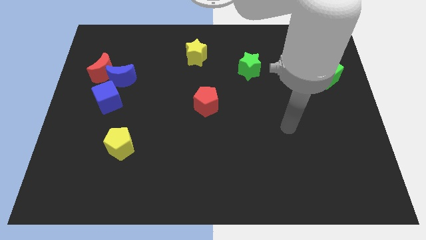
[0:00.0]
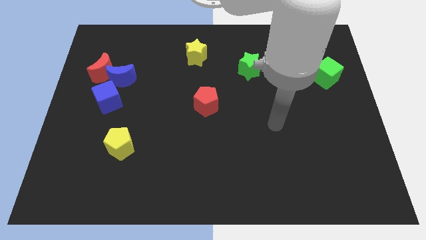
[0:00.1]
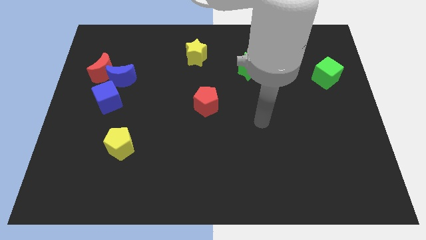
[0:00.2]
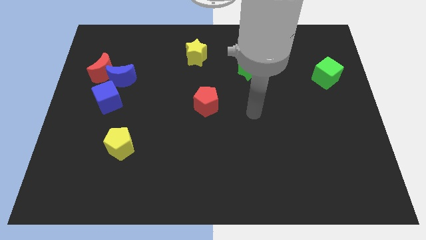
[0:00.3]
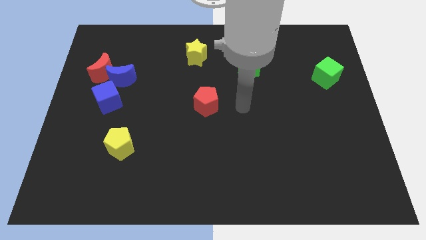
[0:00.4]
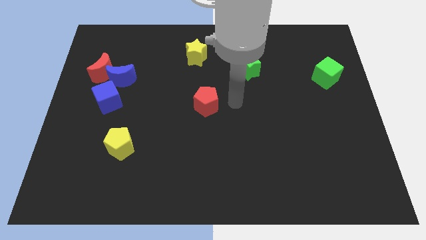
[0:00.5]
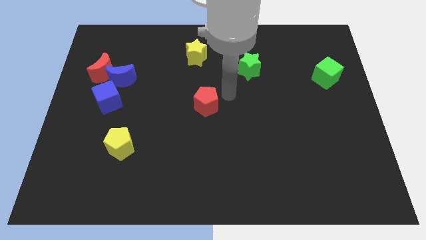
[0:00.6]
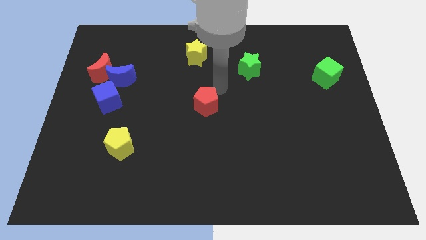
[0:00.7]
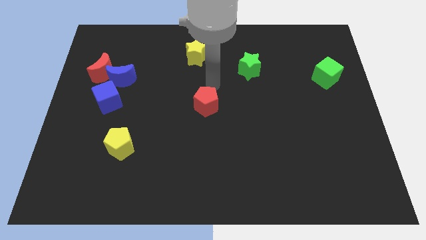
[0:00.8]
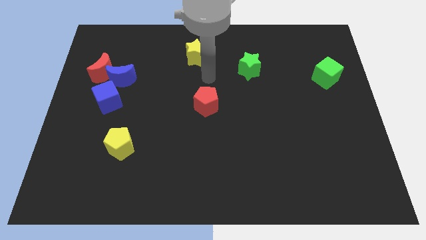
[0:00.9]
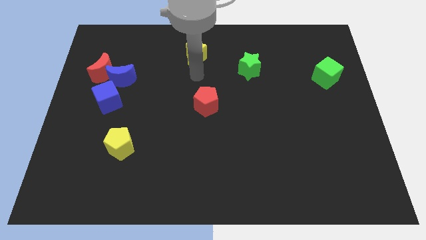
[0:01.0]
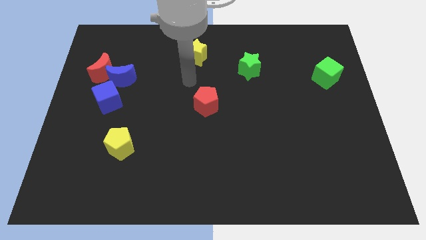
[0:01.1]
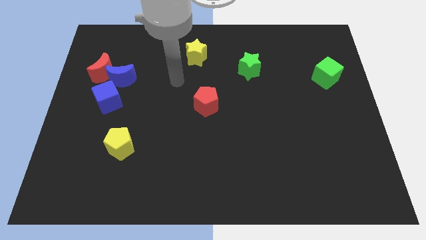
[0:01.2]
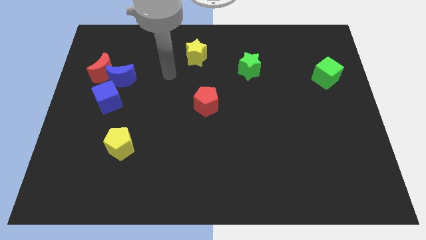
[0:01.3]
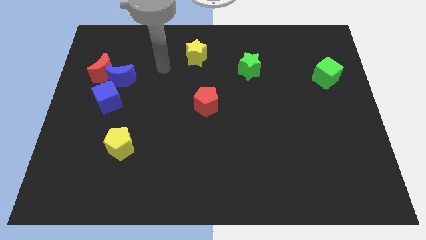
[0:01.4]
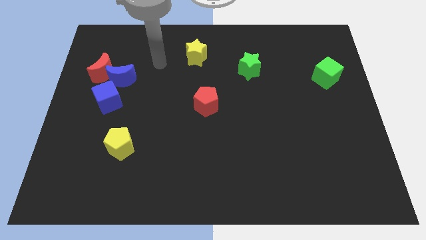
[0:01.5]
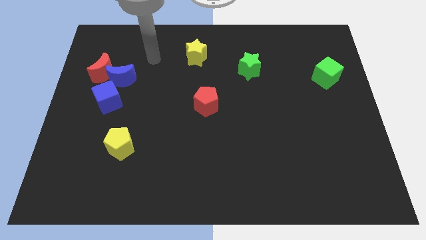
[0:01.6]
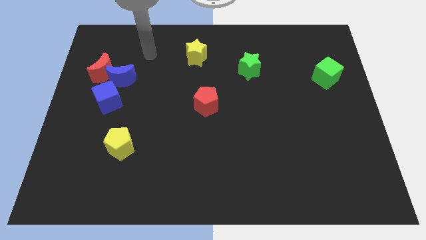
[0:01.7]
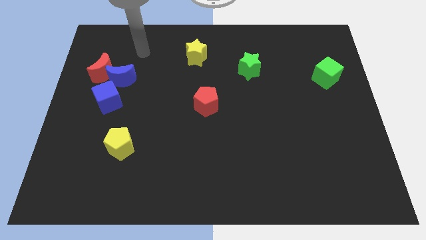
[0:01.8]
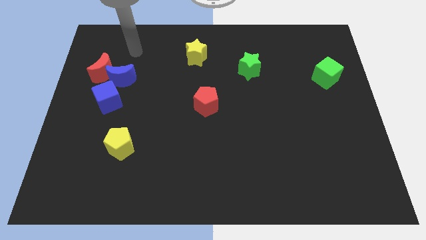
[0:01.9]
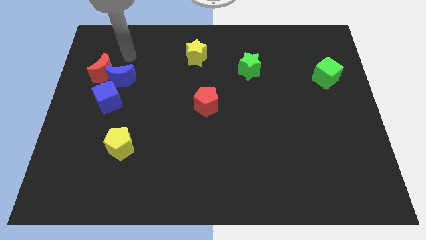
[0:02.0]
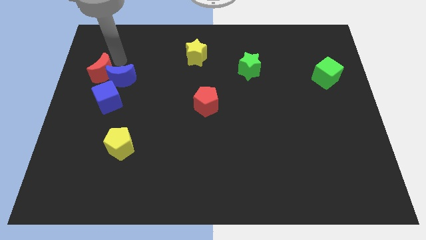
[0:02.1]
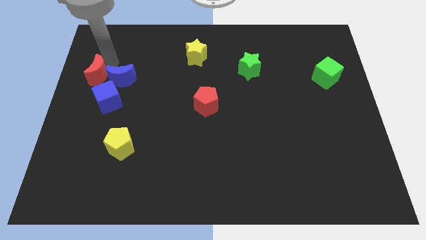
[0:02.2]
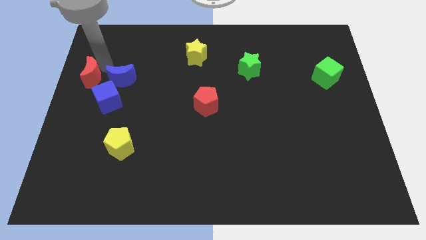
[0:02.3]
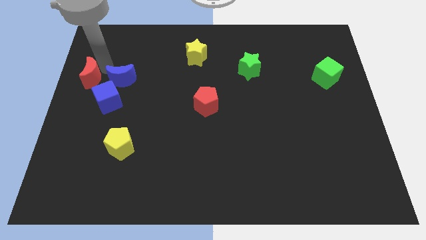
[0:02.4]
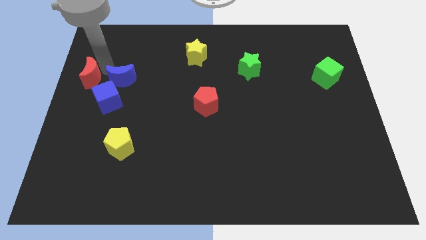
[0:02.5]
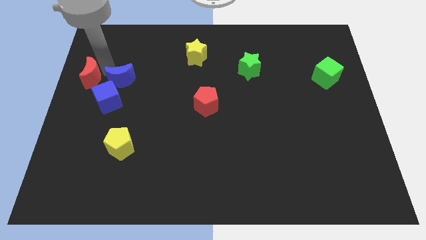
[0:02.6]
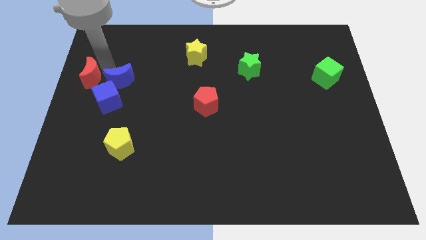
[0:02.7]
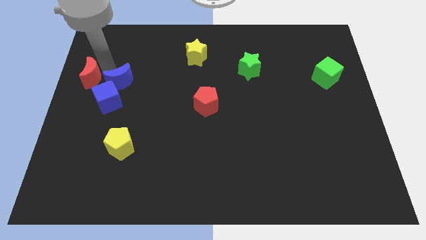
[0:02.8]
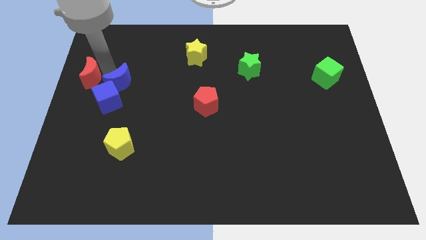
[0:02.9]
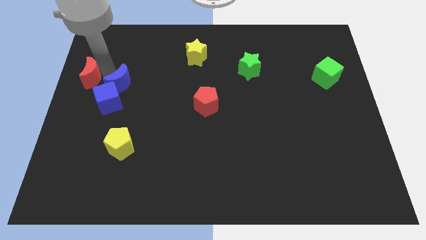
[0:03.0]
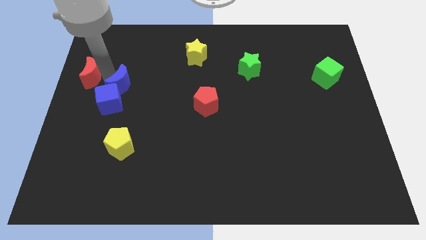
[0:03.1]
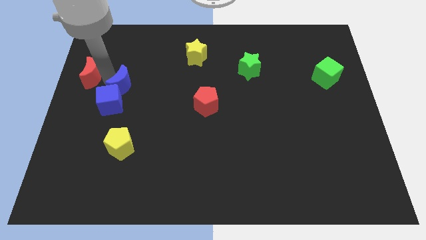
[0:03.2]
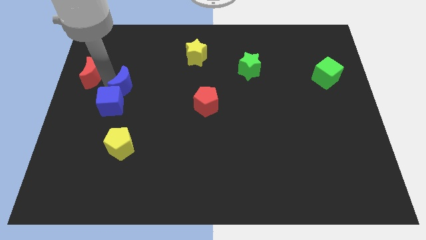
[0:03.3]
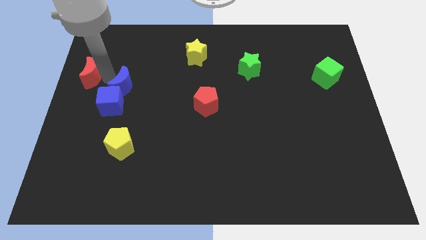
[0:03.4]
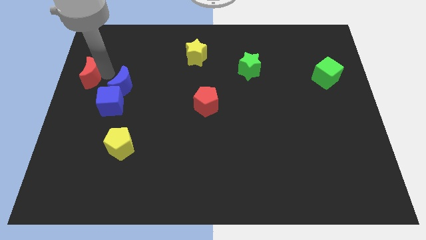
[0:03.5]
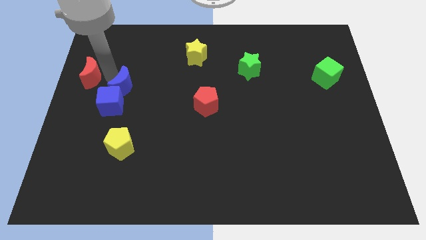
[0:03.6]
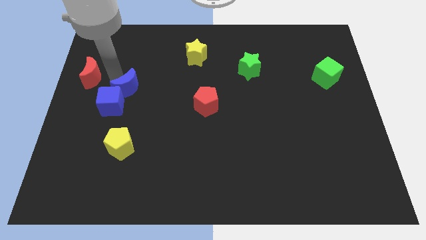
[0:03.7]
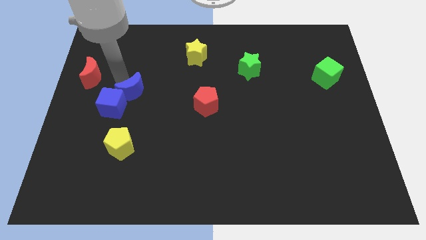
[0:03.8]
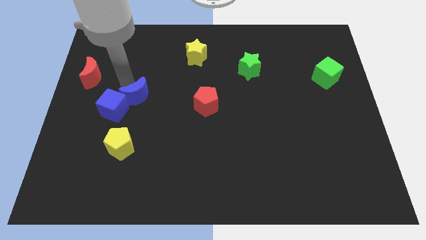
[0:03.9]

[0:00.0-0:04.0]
push the blue moon downwards and right somewhat

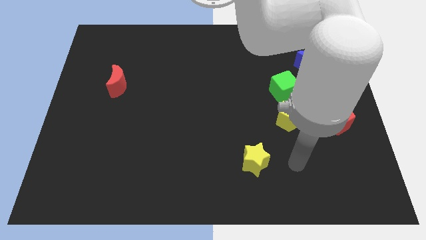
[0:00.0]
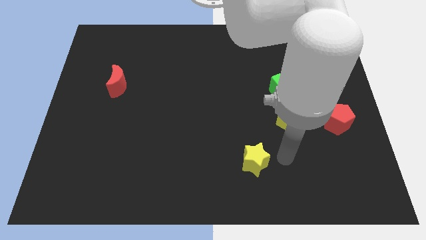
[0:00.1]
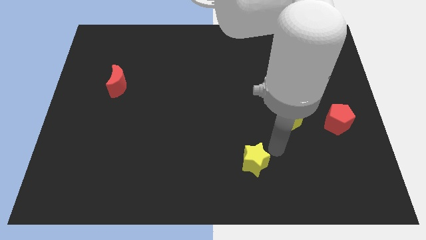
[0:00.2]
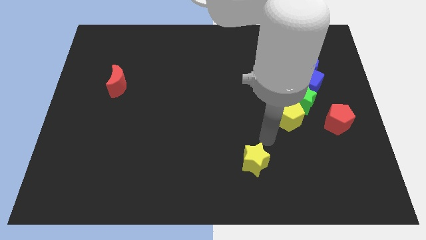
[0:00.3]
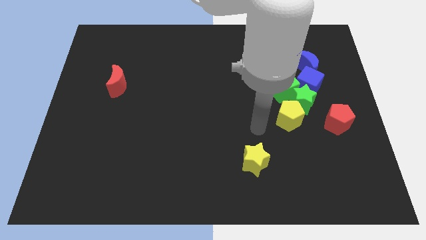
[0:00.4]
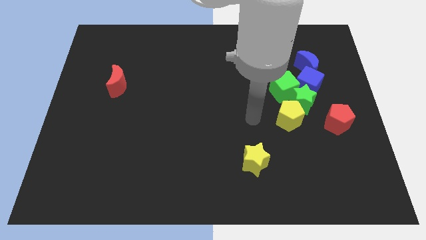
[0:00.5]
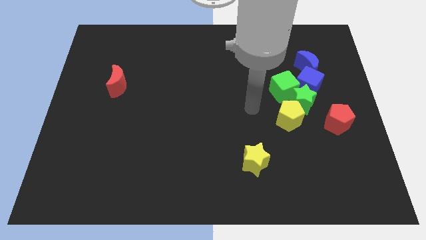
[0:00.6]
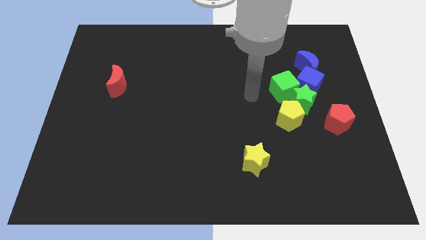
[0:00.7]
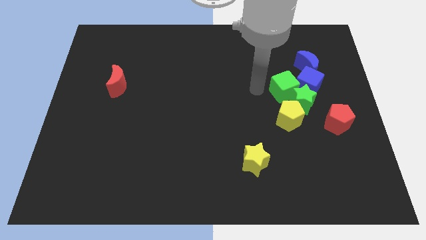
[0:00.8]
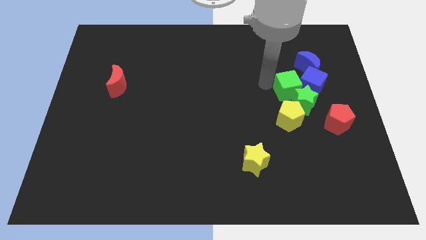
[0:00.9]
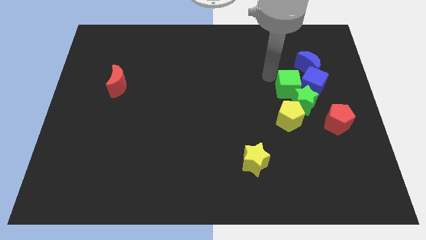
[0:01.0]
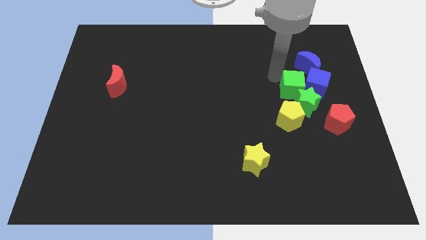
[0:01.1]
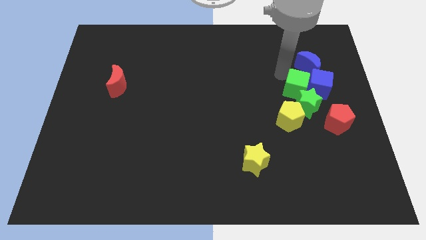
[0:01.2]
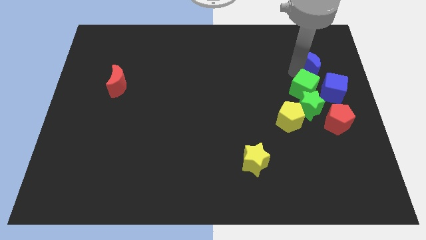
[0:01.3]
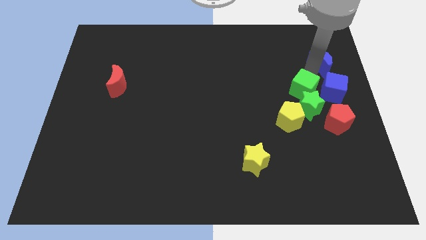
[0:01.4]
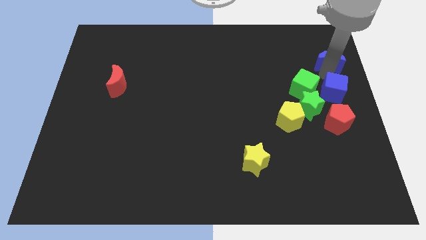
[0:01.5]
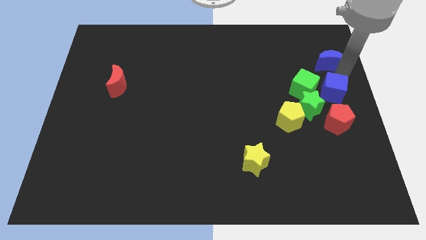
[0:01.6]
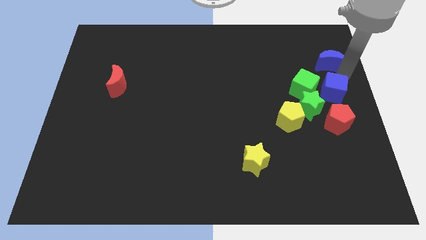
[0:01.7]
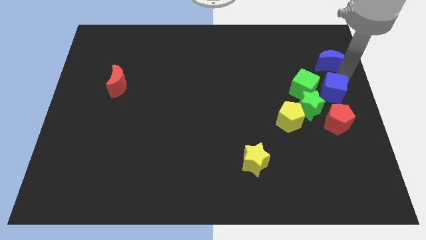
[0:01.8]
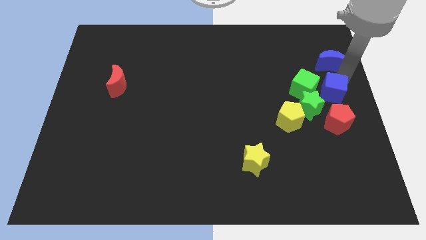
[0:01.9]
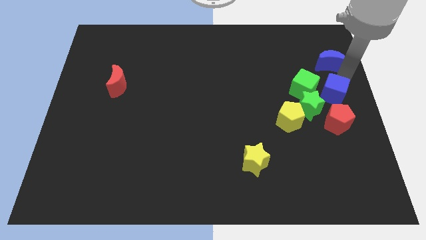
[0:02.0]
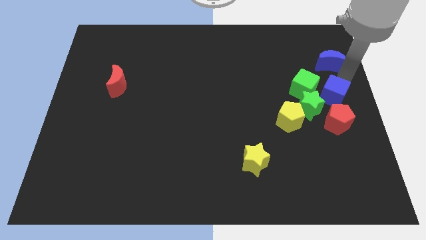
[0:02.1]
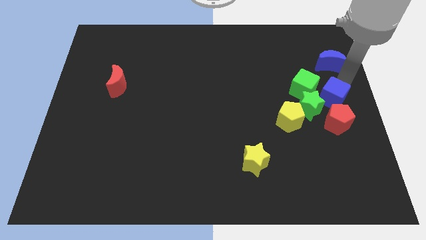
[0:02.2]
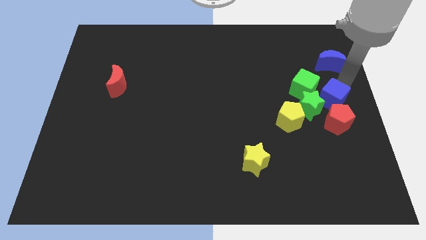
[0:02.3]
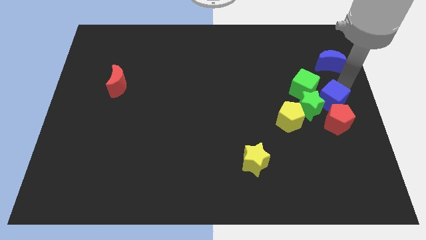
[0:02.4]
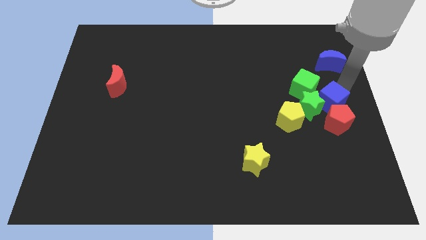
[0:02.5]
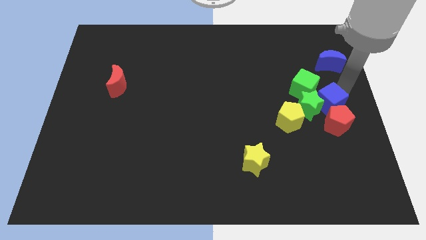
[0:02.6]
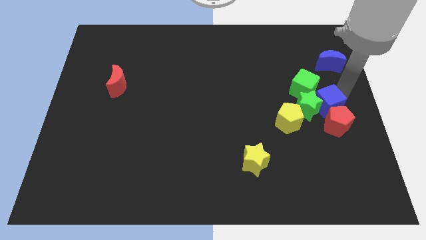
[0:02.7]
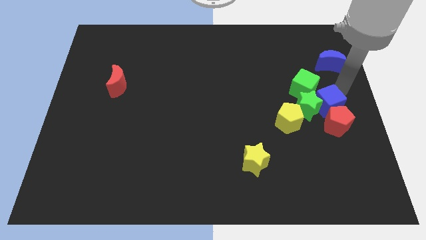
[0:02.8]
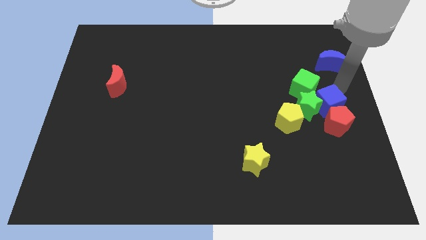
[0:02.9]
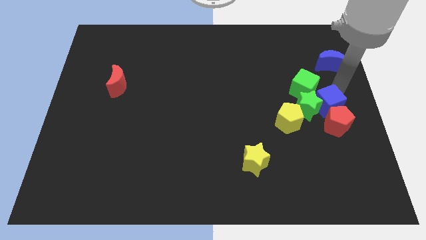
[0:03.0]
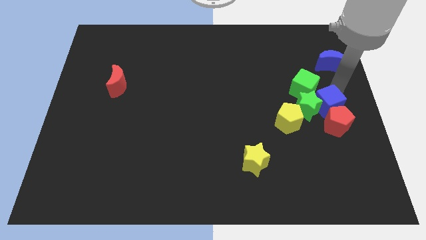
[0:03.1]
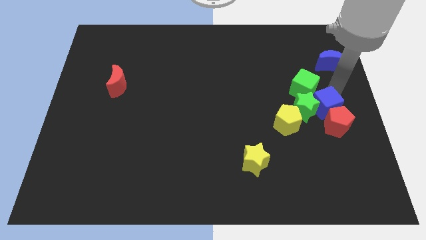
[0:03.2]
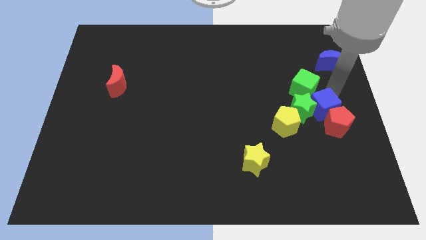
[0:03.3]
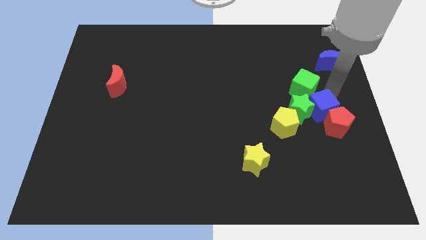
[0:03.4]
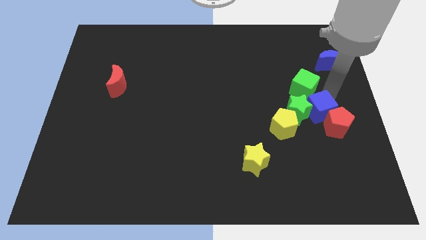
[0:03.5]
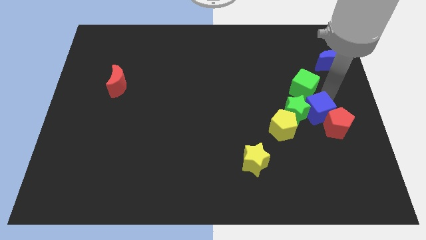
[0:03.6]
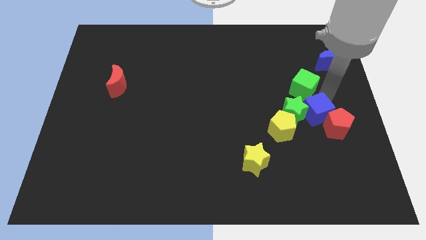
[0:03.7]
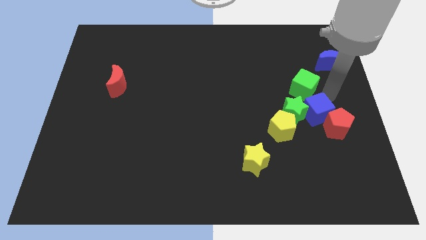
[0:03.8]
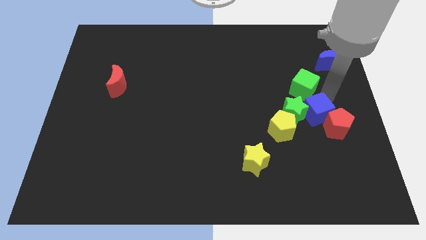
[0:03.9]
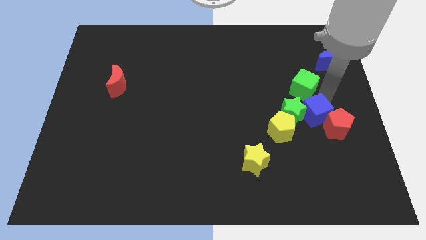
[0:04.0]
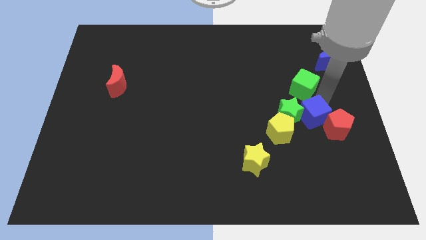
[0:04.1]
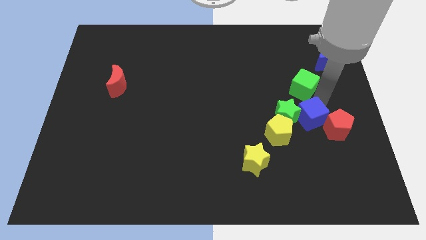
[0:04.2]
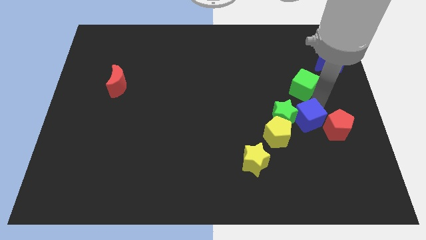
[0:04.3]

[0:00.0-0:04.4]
move the blue cube downwards and to the left a little bit
